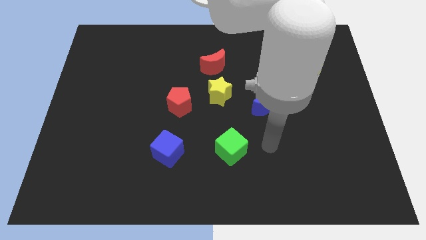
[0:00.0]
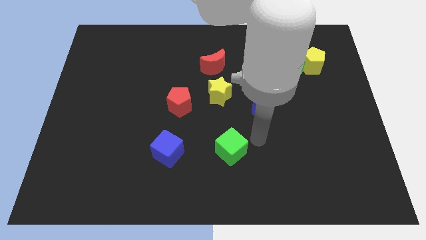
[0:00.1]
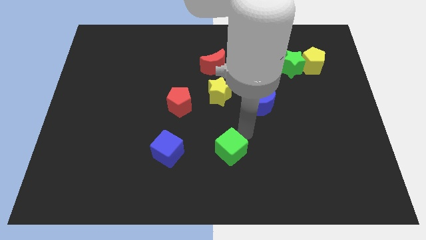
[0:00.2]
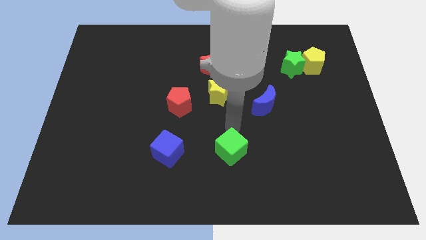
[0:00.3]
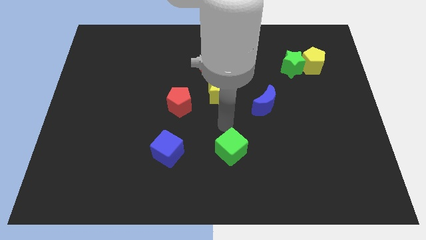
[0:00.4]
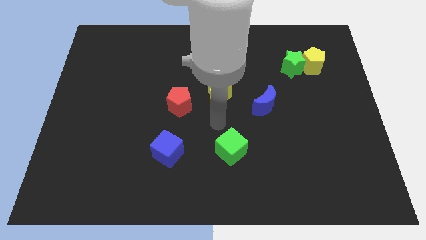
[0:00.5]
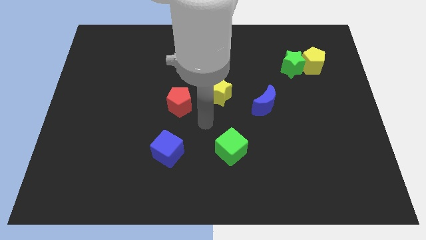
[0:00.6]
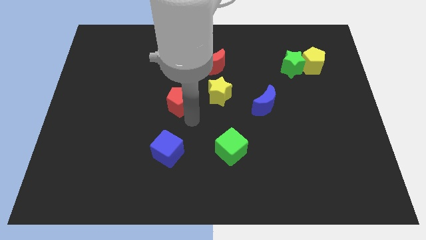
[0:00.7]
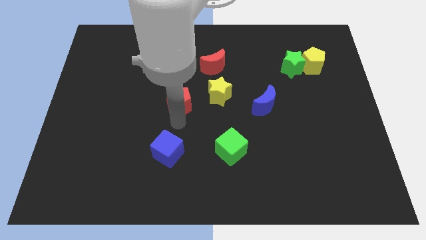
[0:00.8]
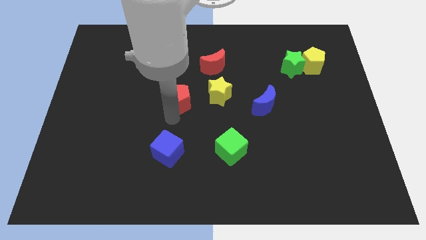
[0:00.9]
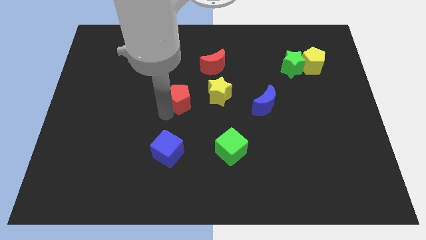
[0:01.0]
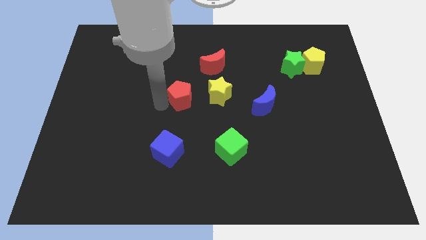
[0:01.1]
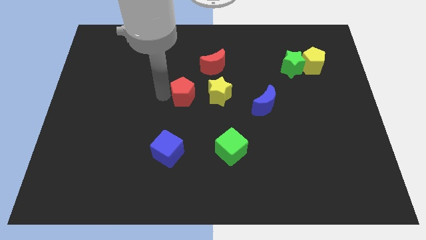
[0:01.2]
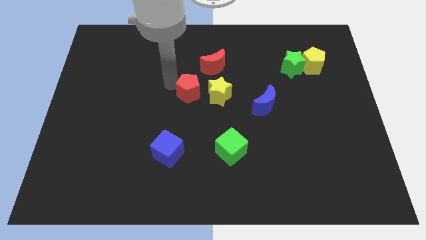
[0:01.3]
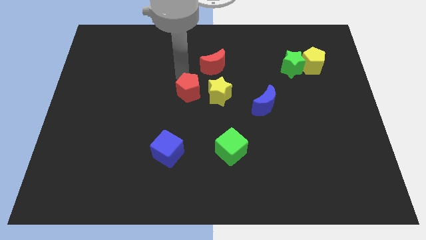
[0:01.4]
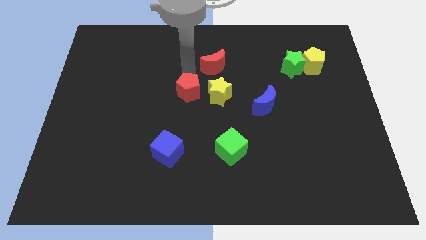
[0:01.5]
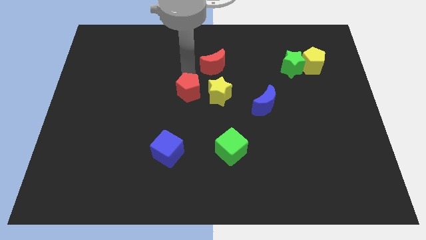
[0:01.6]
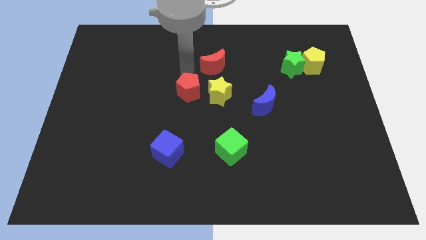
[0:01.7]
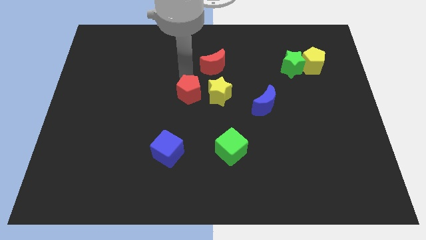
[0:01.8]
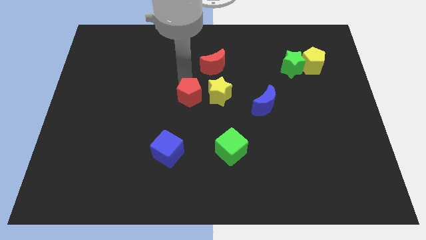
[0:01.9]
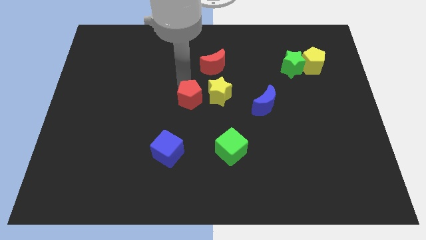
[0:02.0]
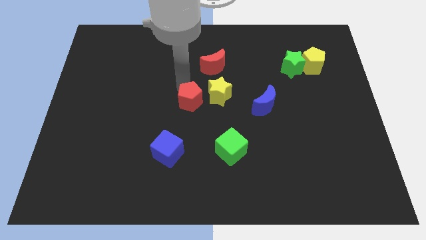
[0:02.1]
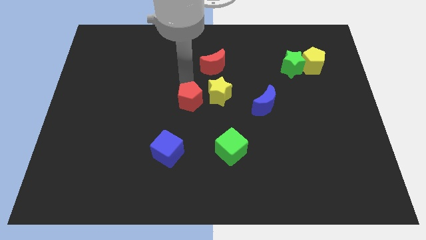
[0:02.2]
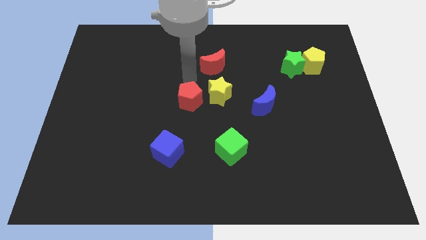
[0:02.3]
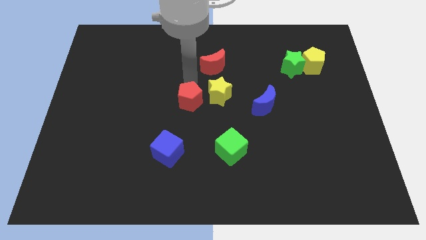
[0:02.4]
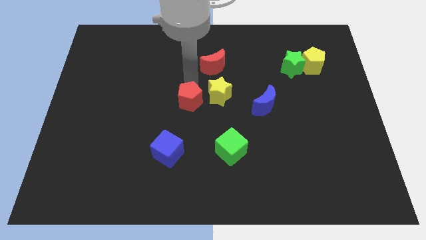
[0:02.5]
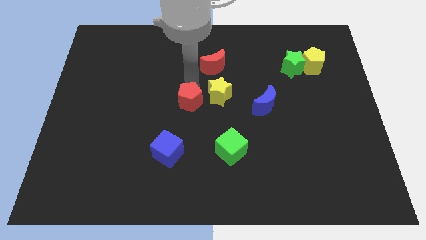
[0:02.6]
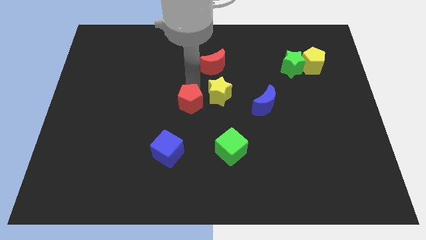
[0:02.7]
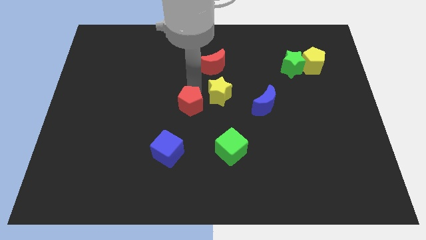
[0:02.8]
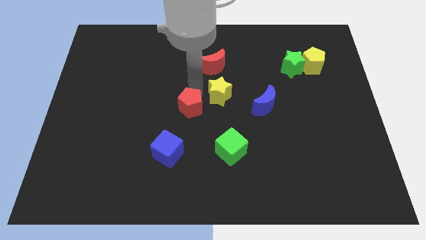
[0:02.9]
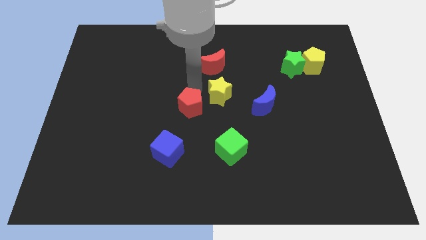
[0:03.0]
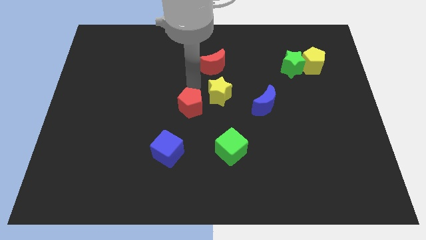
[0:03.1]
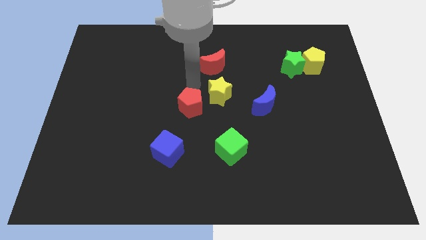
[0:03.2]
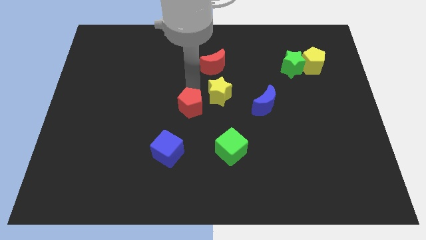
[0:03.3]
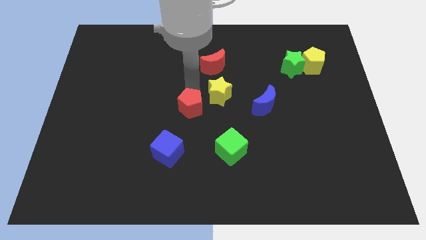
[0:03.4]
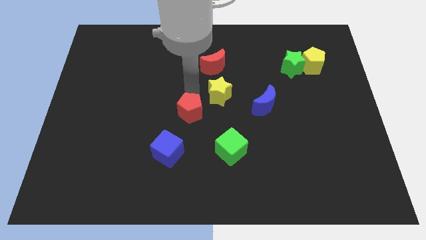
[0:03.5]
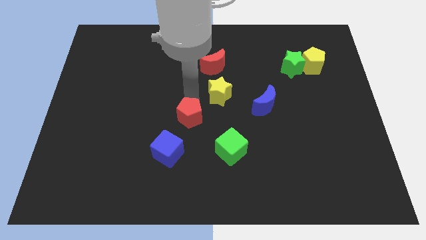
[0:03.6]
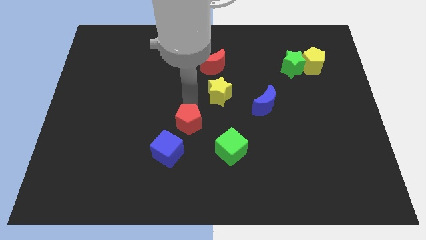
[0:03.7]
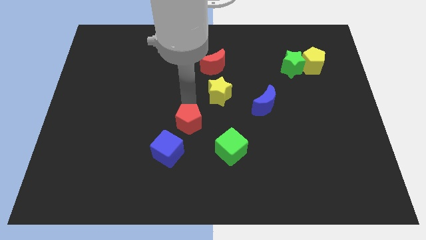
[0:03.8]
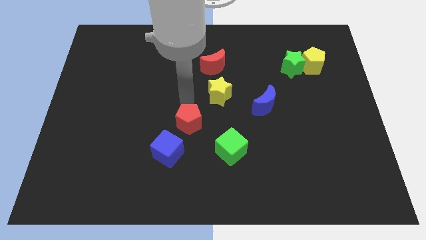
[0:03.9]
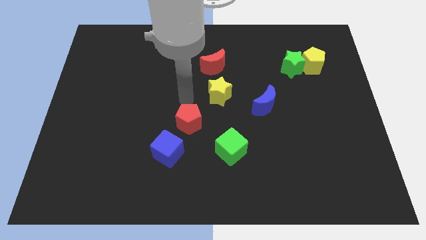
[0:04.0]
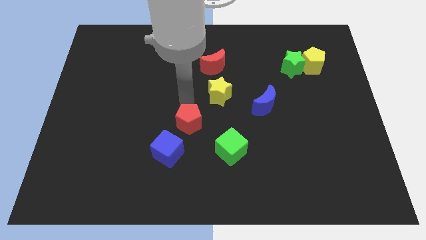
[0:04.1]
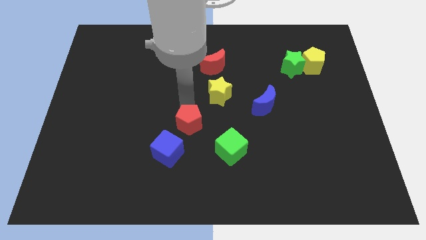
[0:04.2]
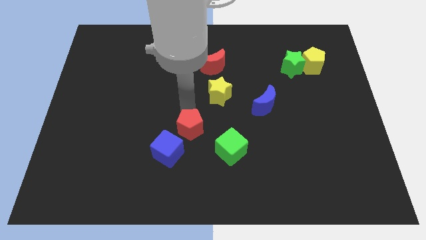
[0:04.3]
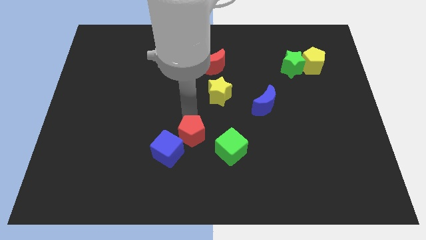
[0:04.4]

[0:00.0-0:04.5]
slide the red pentagon slightly downwards

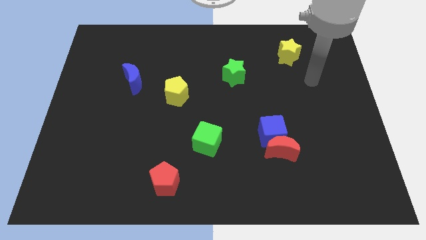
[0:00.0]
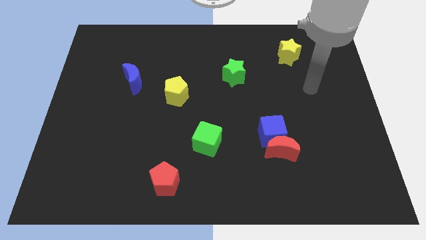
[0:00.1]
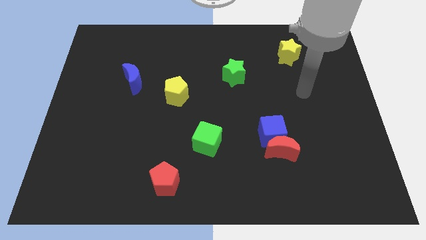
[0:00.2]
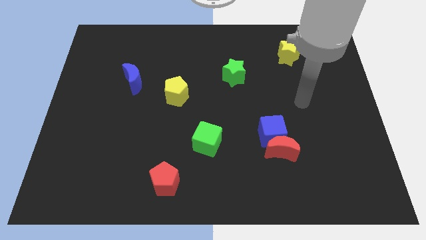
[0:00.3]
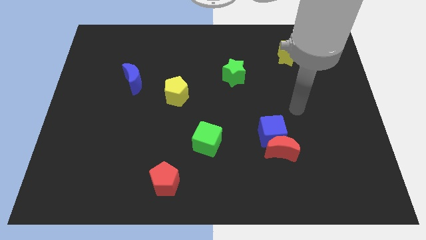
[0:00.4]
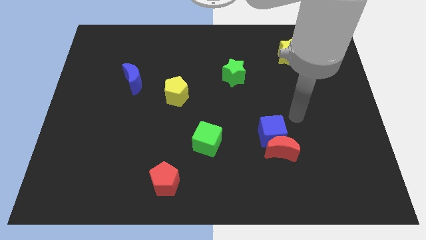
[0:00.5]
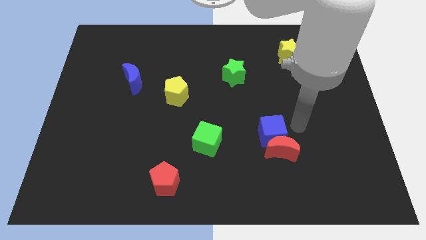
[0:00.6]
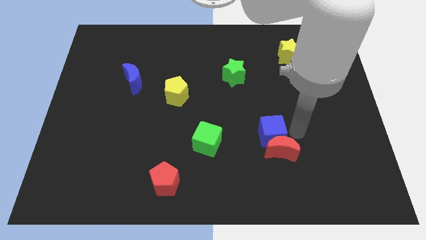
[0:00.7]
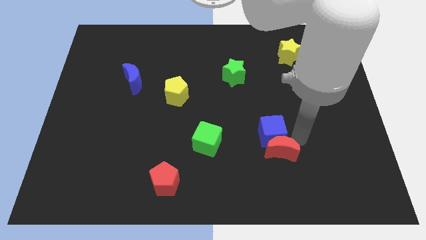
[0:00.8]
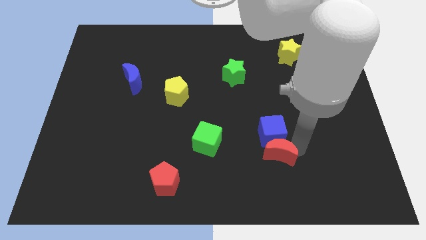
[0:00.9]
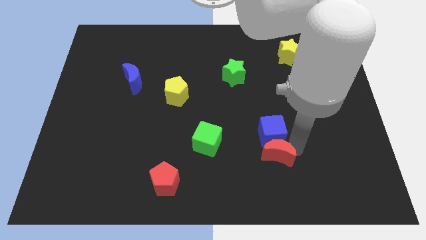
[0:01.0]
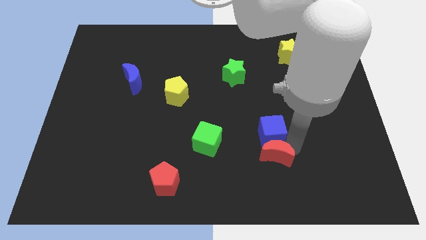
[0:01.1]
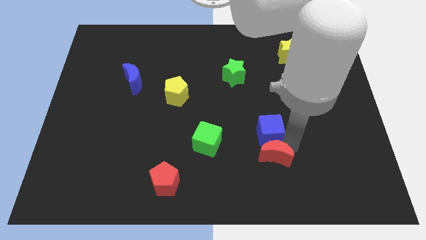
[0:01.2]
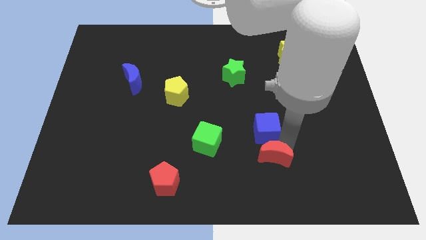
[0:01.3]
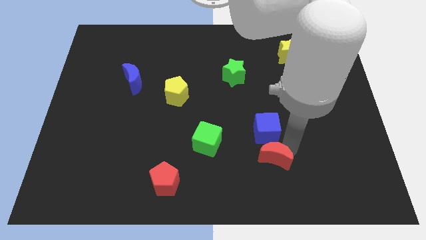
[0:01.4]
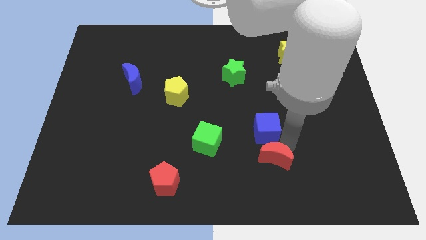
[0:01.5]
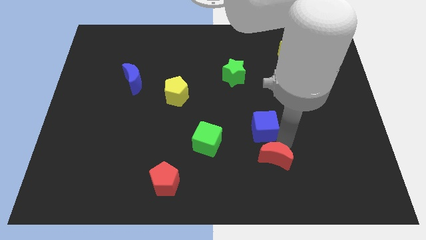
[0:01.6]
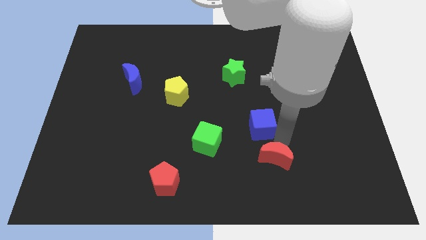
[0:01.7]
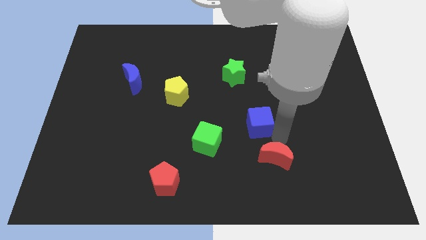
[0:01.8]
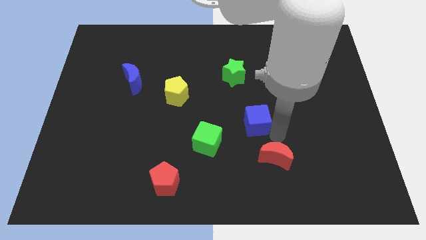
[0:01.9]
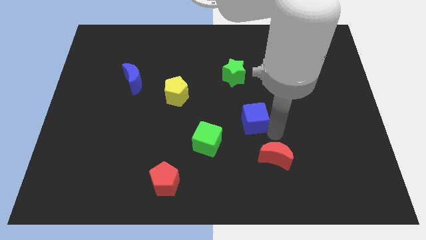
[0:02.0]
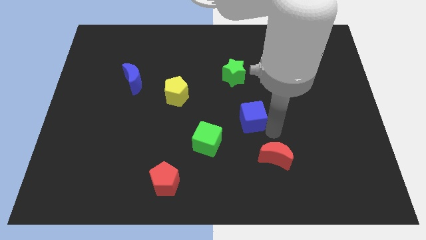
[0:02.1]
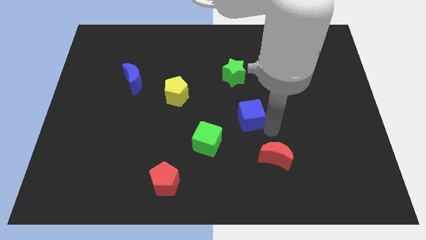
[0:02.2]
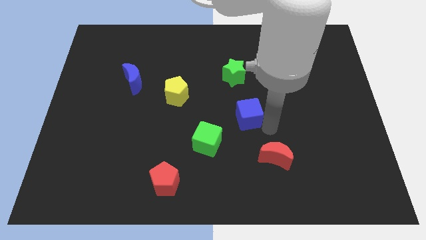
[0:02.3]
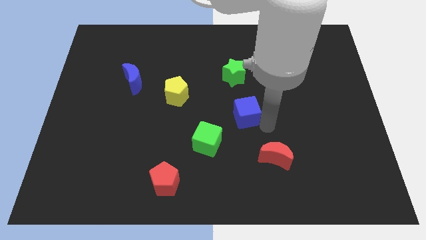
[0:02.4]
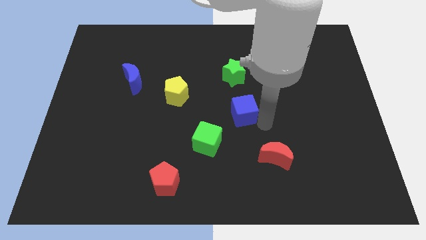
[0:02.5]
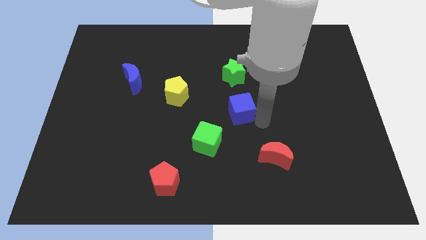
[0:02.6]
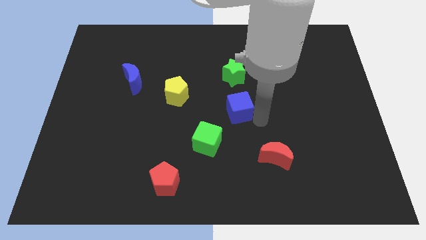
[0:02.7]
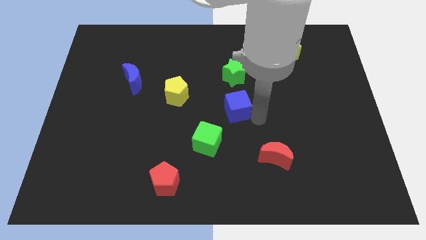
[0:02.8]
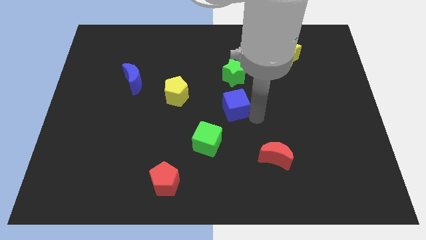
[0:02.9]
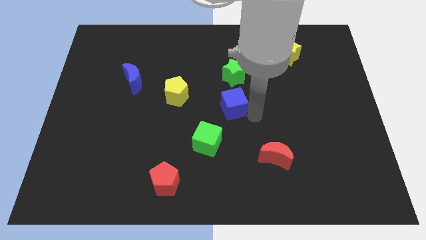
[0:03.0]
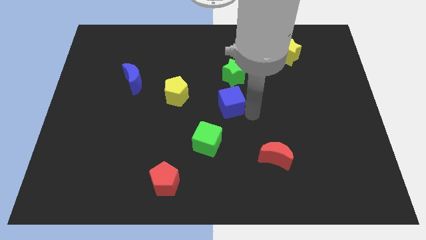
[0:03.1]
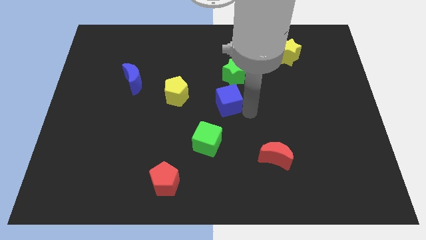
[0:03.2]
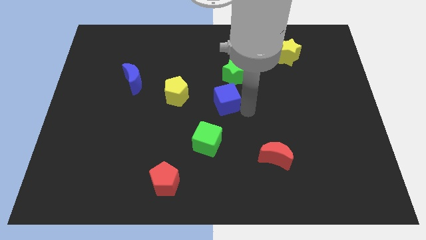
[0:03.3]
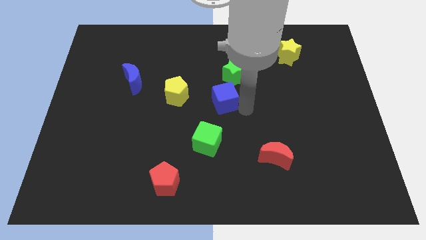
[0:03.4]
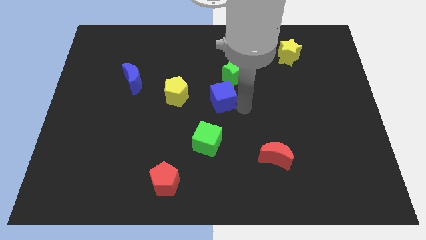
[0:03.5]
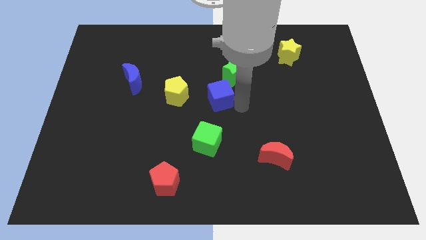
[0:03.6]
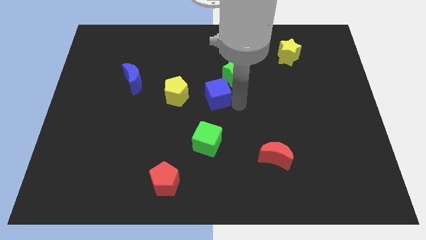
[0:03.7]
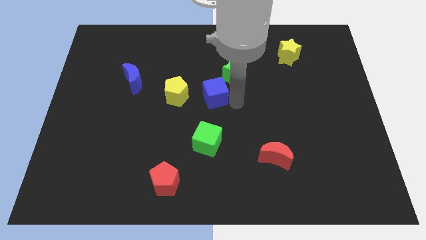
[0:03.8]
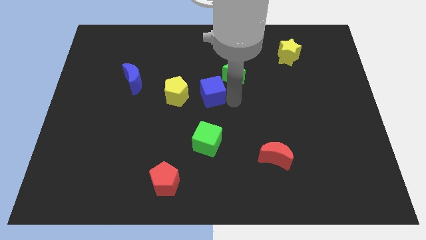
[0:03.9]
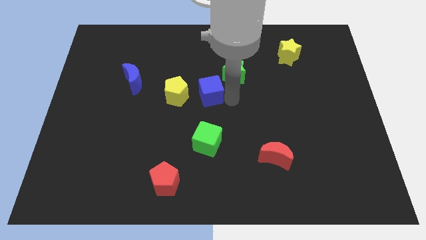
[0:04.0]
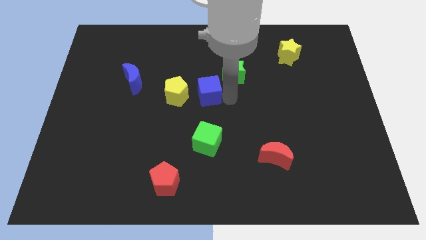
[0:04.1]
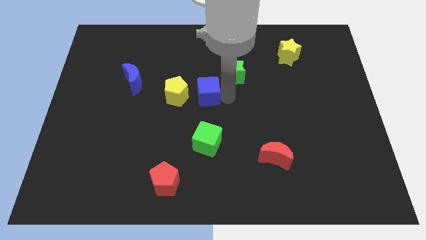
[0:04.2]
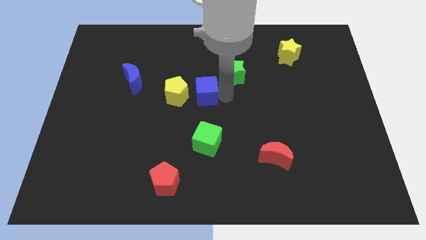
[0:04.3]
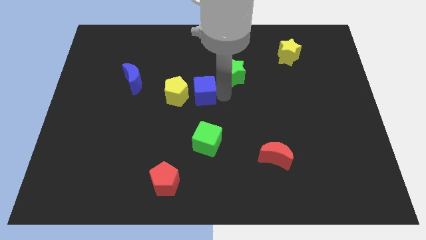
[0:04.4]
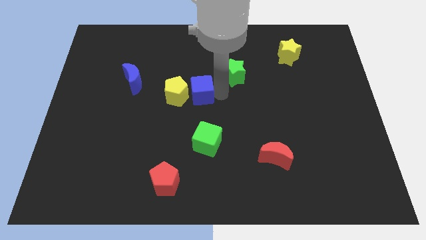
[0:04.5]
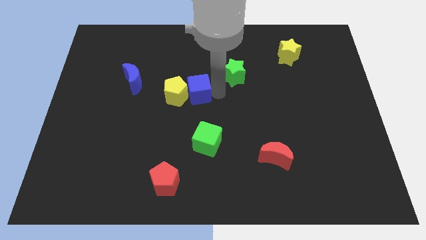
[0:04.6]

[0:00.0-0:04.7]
move the blue cube upwards and left diagonally
